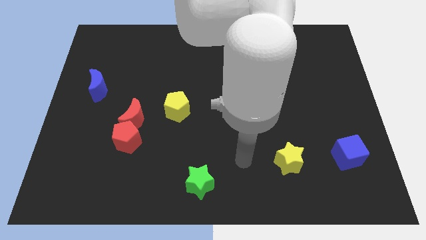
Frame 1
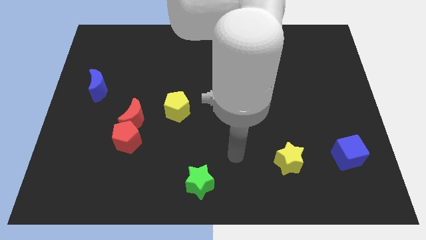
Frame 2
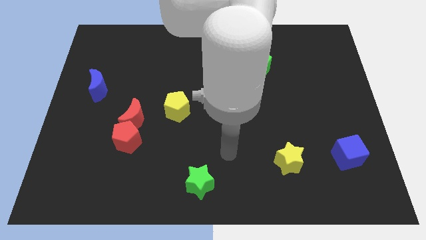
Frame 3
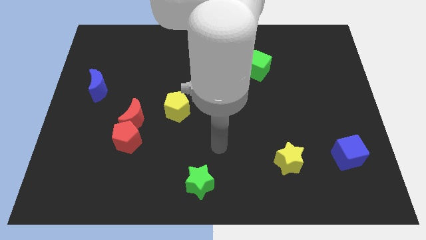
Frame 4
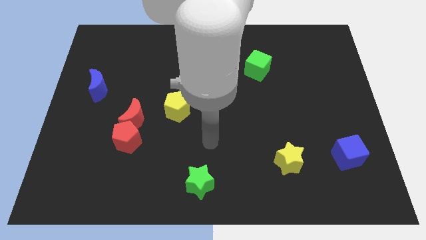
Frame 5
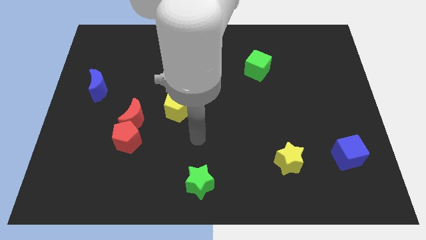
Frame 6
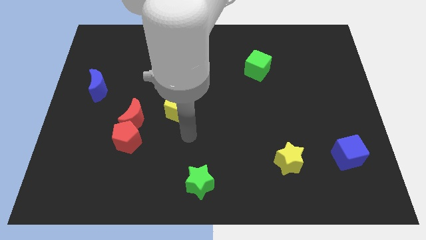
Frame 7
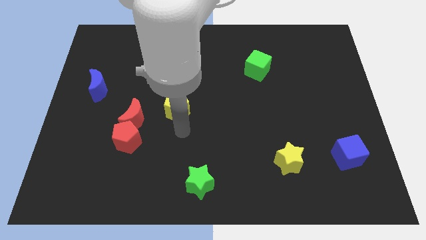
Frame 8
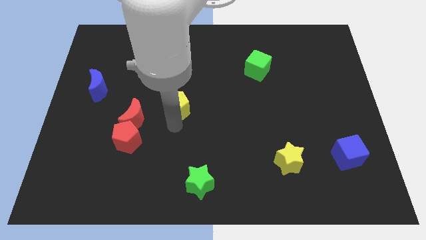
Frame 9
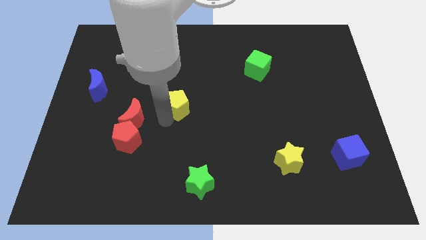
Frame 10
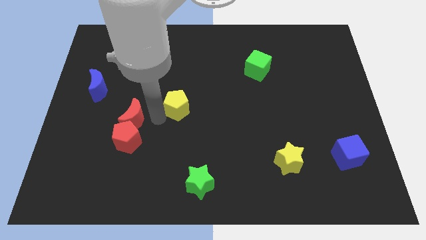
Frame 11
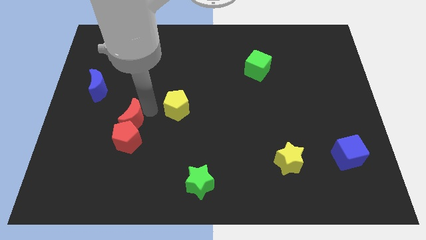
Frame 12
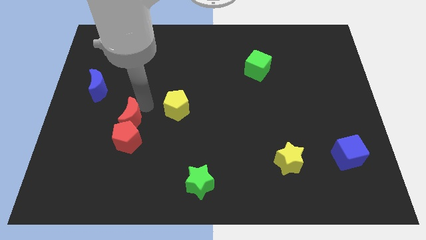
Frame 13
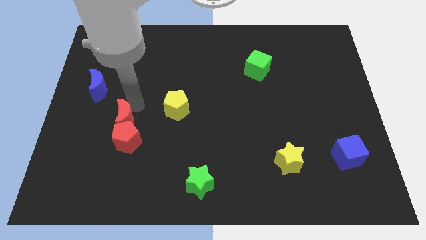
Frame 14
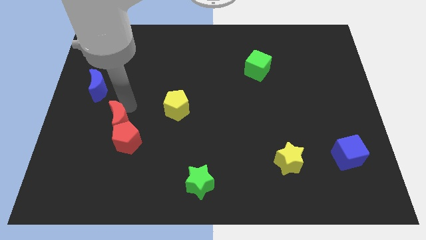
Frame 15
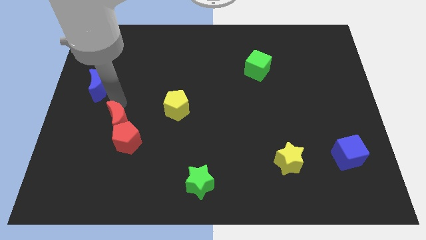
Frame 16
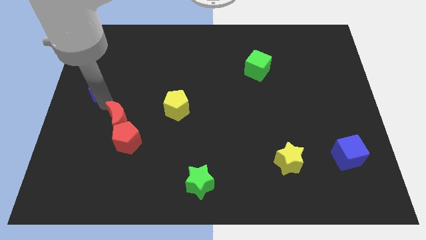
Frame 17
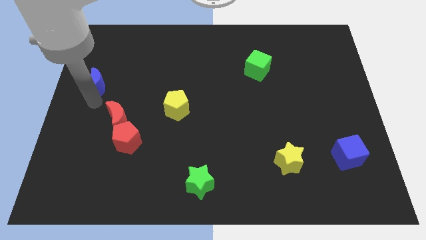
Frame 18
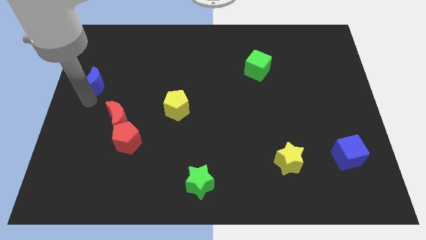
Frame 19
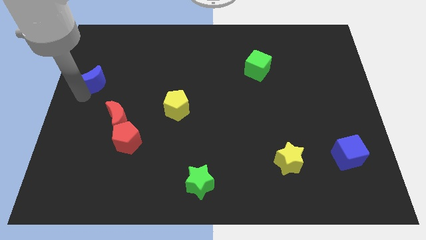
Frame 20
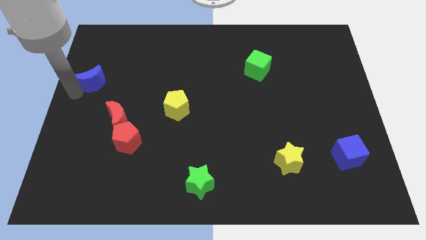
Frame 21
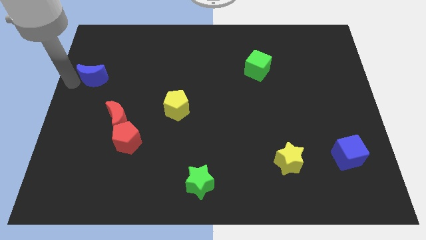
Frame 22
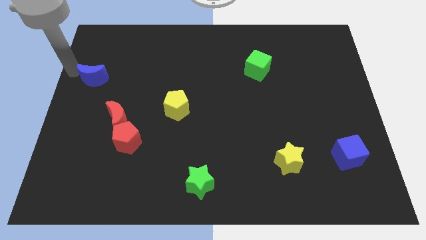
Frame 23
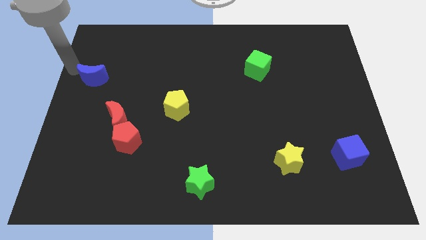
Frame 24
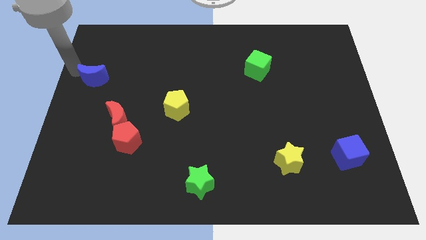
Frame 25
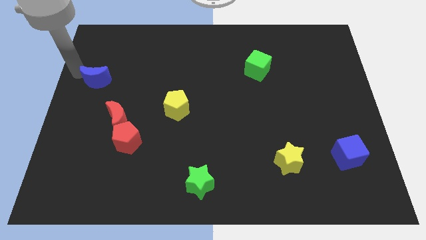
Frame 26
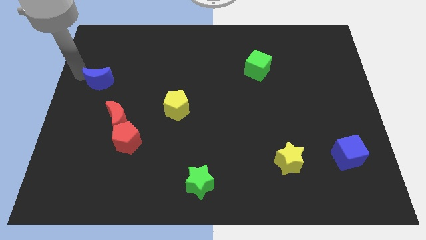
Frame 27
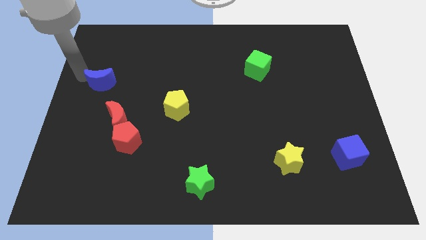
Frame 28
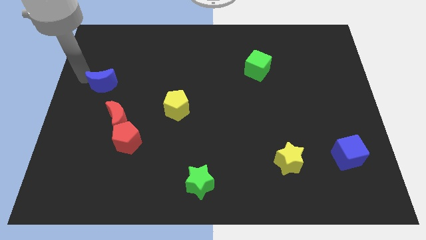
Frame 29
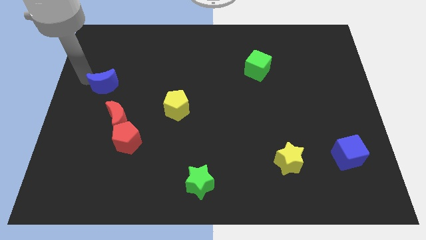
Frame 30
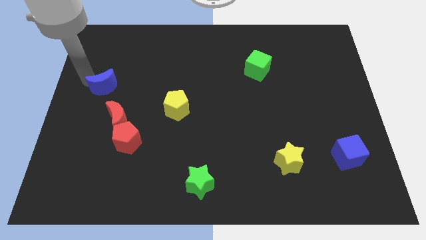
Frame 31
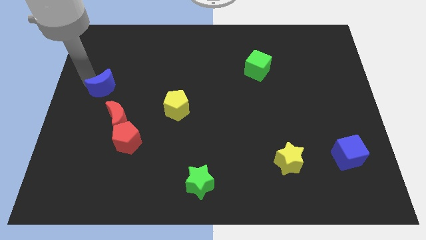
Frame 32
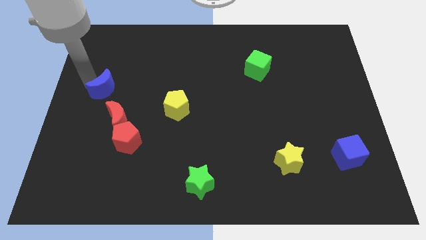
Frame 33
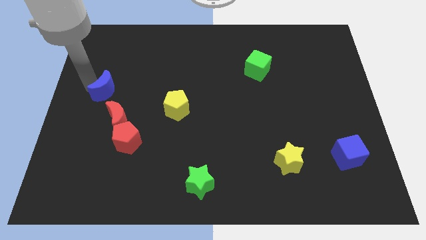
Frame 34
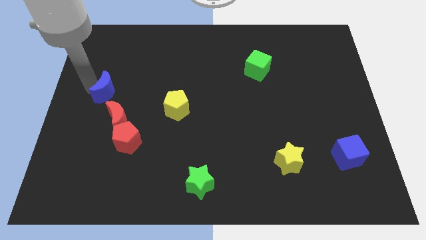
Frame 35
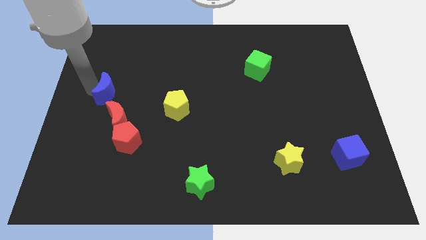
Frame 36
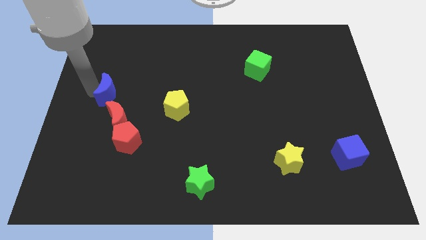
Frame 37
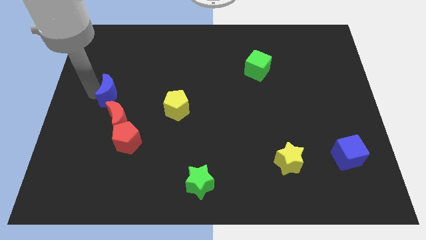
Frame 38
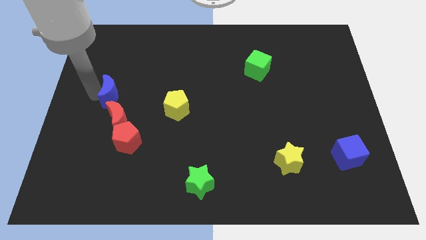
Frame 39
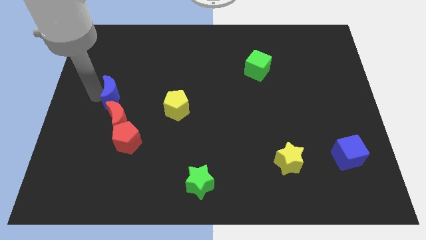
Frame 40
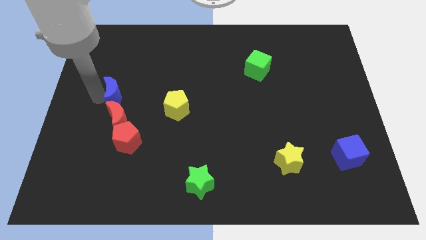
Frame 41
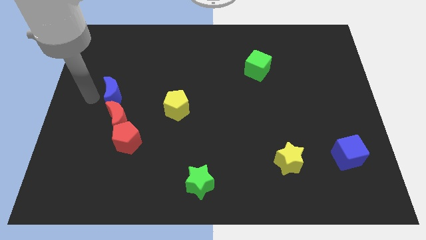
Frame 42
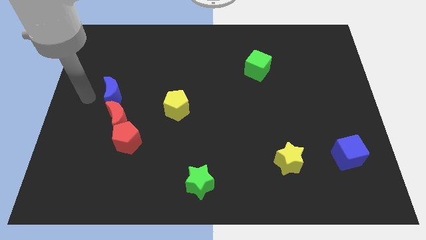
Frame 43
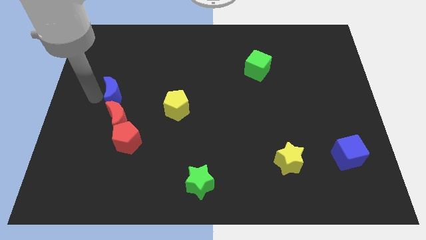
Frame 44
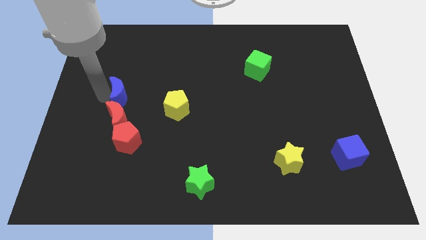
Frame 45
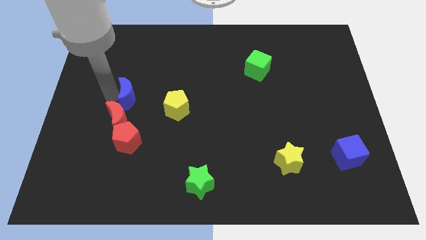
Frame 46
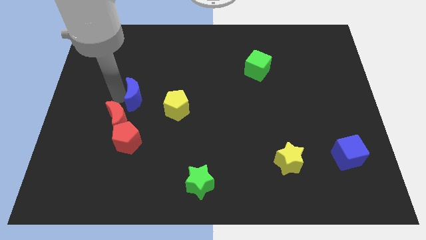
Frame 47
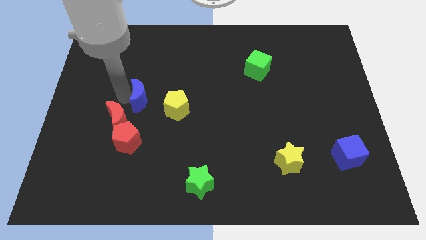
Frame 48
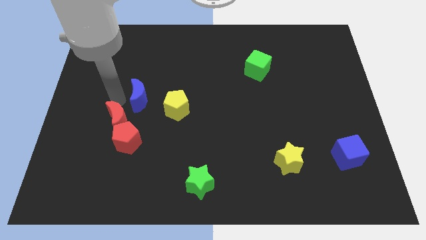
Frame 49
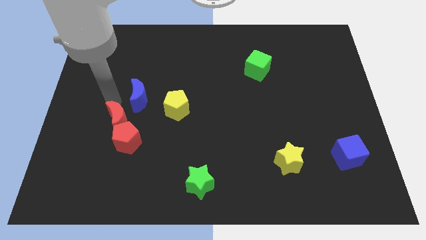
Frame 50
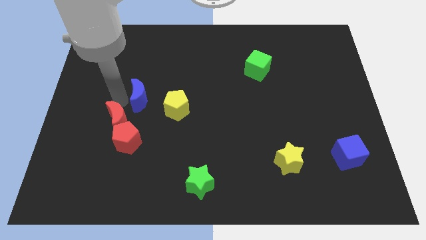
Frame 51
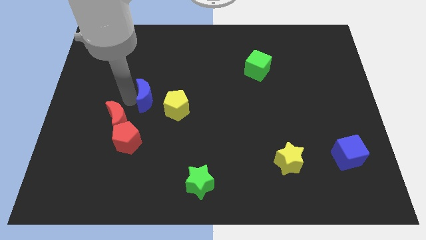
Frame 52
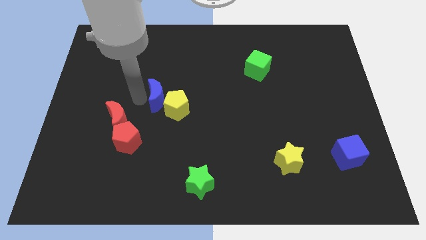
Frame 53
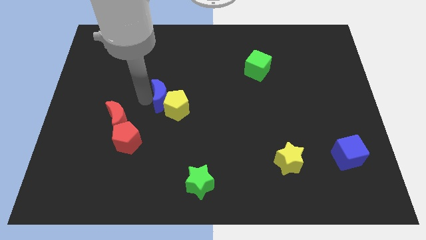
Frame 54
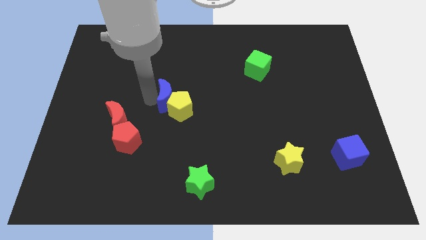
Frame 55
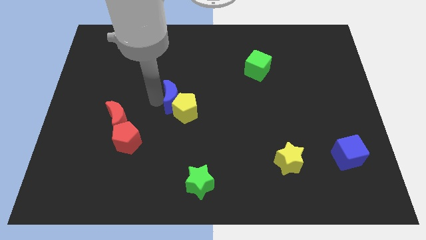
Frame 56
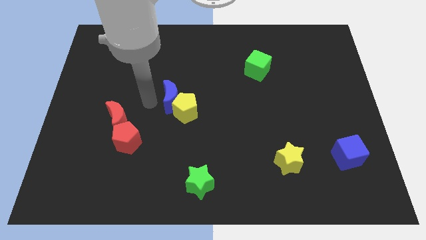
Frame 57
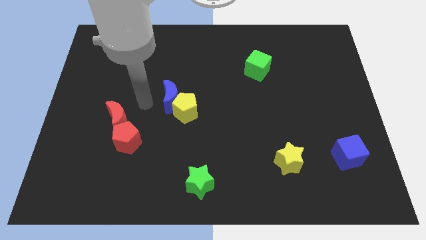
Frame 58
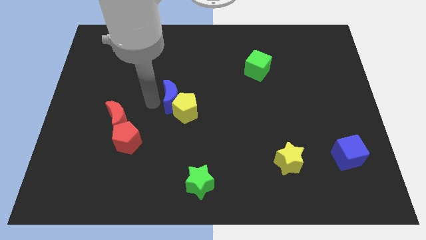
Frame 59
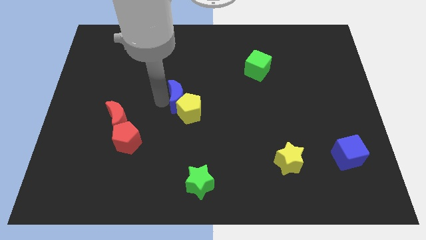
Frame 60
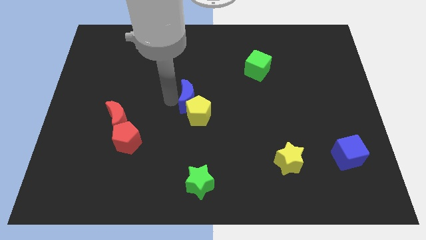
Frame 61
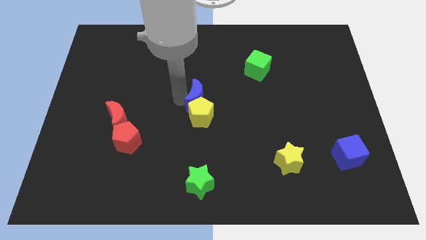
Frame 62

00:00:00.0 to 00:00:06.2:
slide the blue moon to the top right side of the yellow pentagon

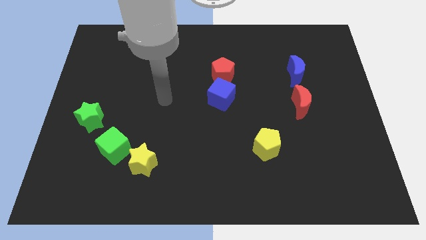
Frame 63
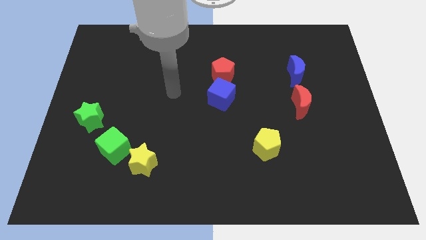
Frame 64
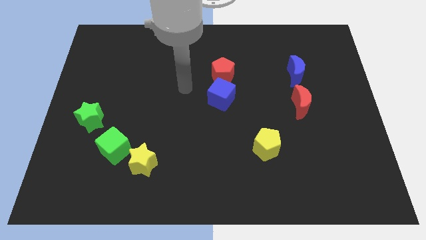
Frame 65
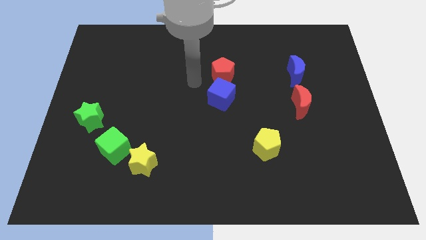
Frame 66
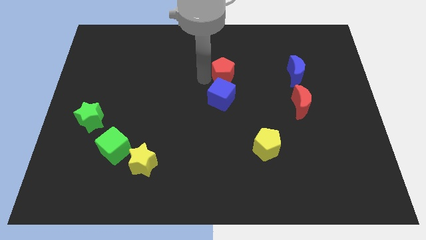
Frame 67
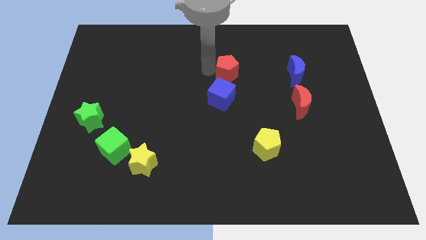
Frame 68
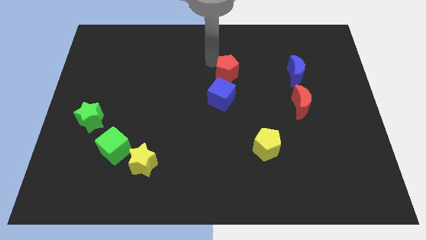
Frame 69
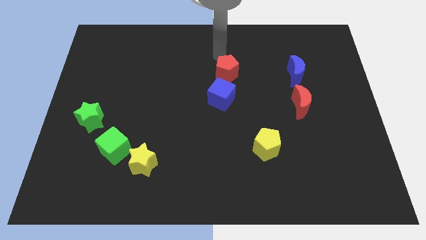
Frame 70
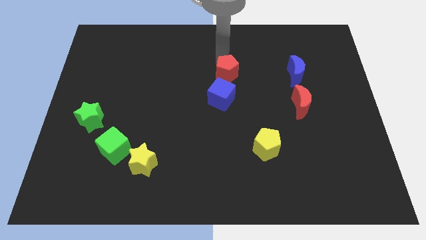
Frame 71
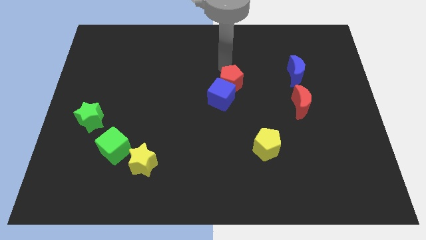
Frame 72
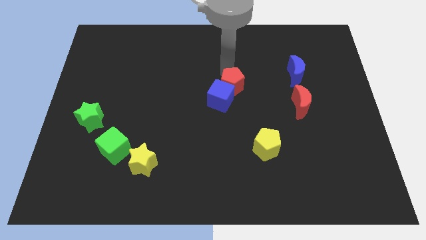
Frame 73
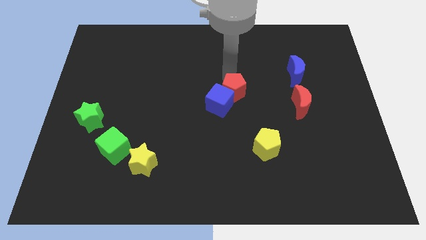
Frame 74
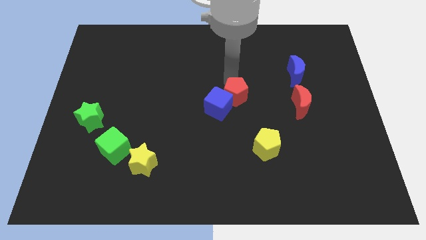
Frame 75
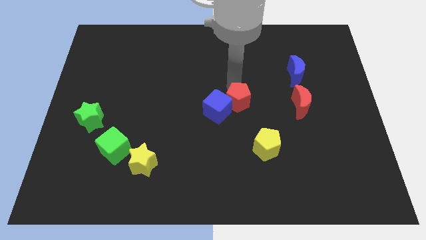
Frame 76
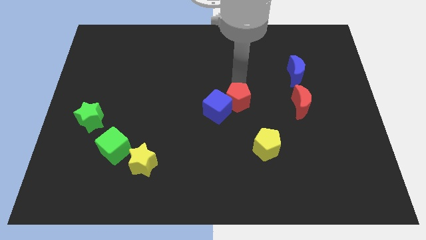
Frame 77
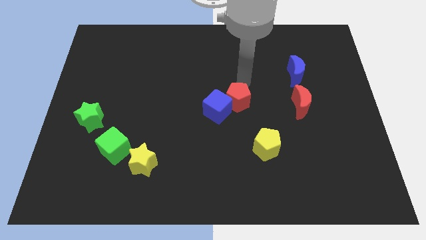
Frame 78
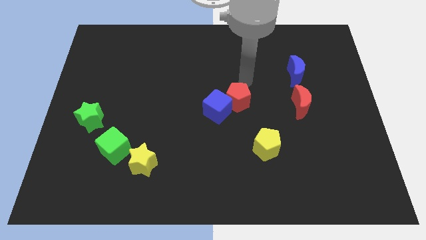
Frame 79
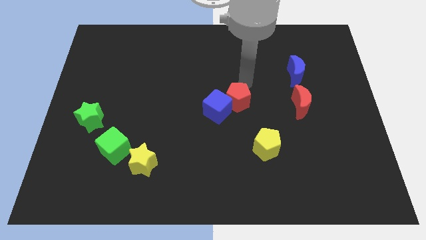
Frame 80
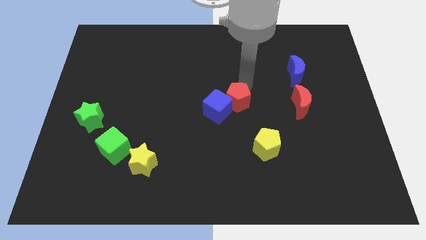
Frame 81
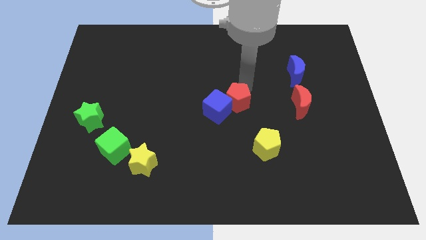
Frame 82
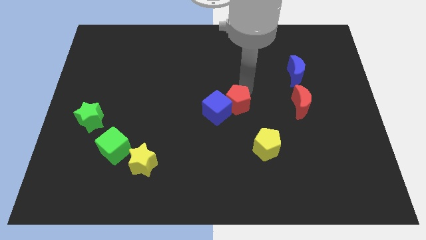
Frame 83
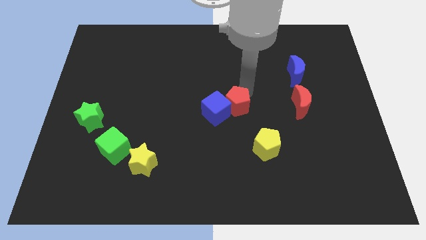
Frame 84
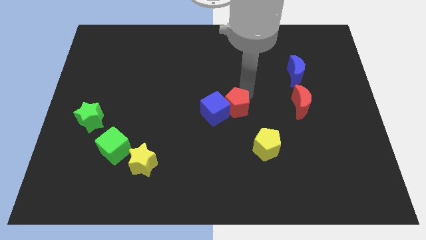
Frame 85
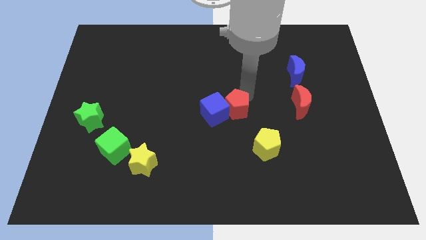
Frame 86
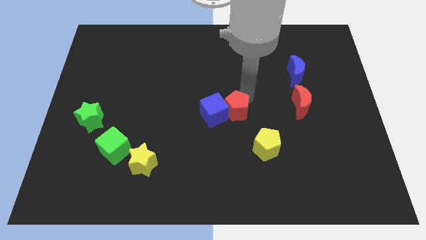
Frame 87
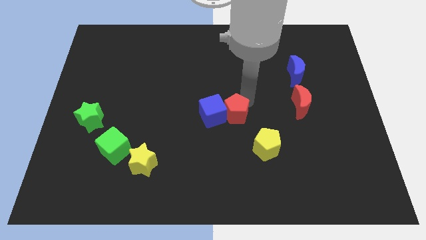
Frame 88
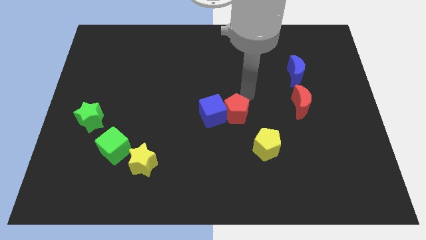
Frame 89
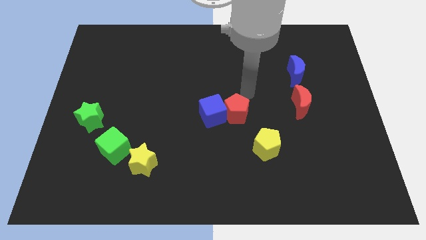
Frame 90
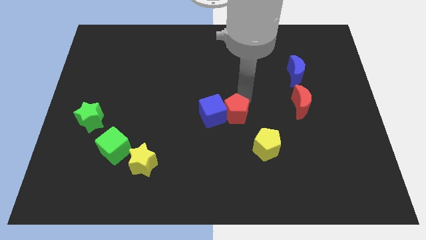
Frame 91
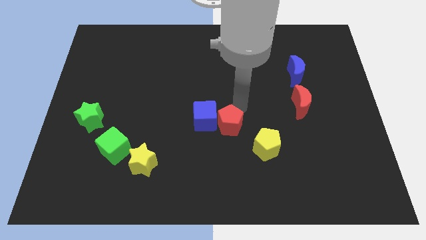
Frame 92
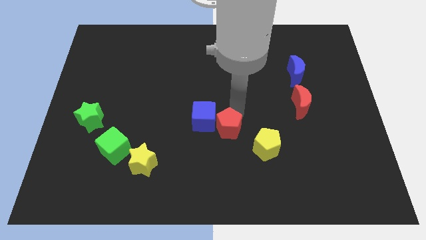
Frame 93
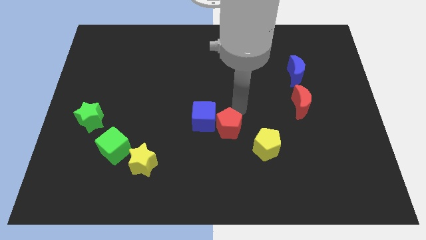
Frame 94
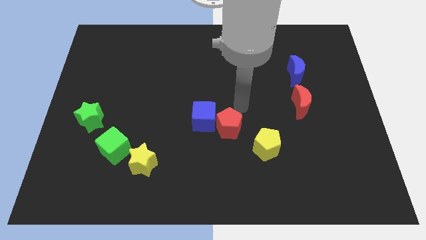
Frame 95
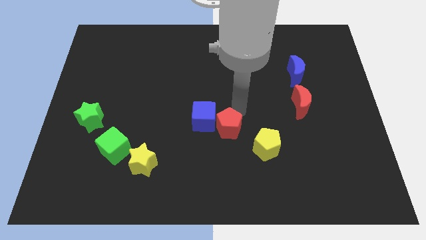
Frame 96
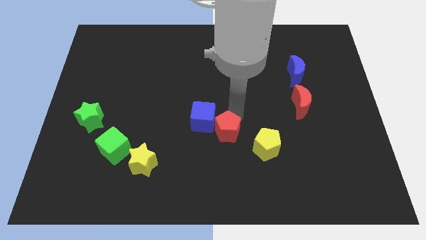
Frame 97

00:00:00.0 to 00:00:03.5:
put the red pentagon to the left of the yellow pentagon
